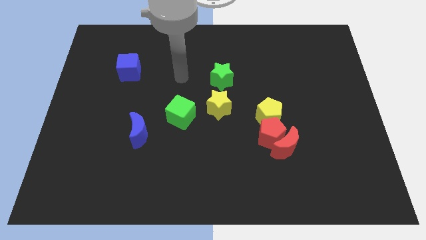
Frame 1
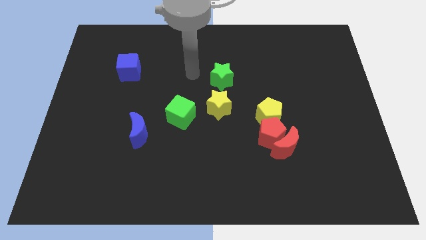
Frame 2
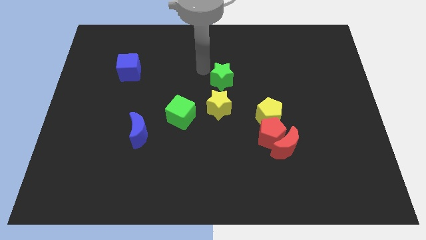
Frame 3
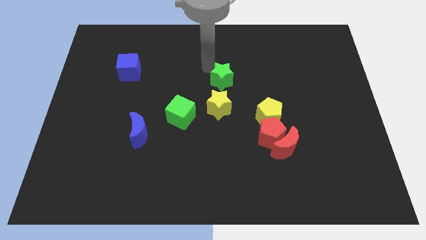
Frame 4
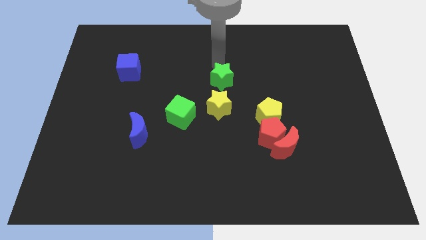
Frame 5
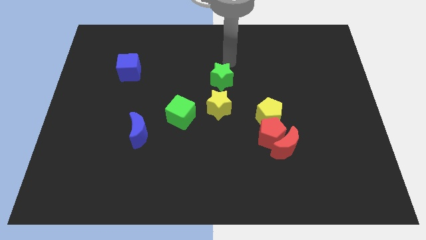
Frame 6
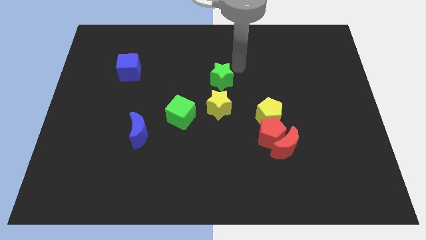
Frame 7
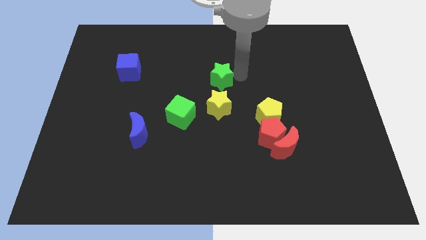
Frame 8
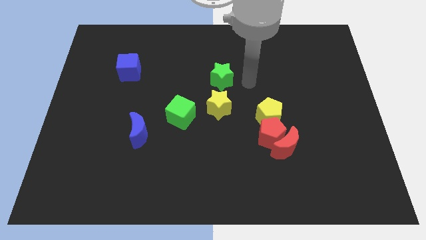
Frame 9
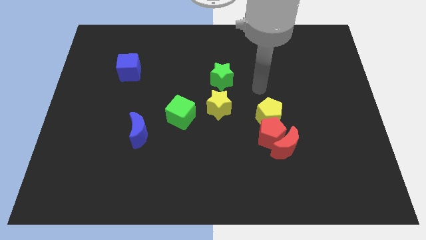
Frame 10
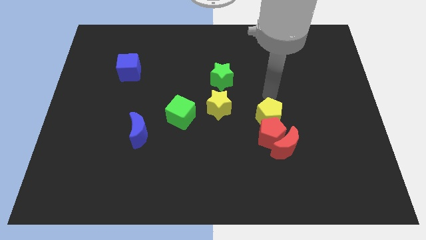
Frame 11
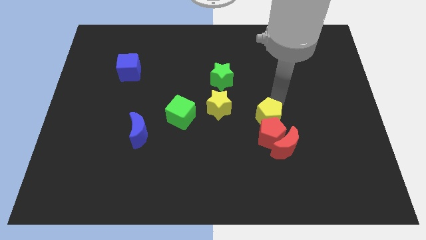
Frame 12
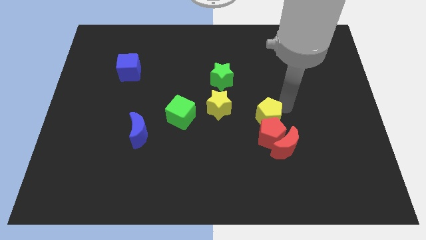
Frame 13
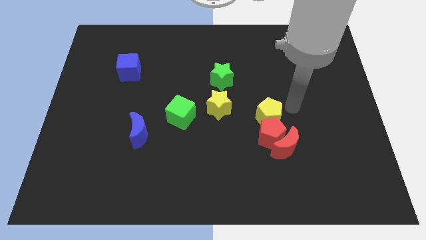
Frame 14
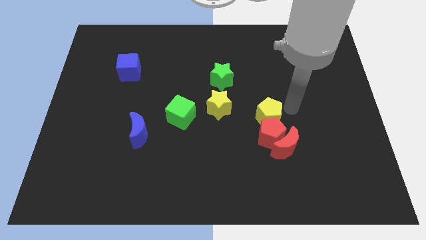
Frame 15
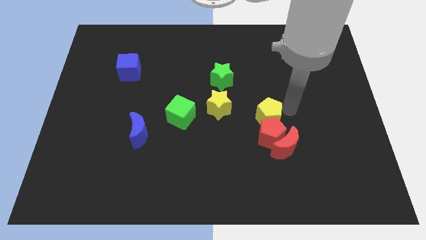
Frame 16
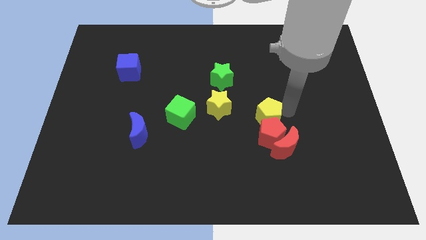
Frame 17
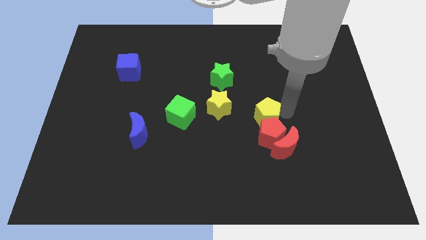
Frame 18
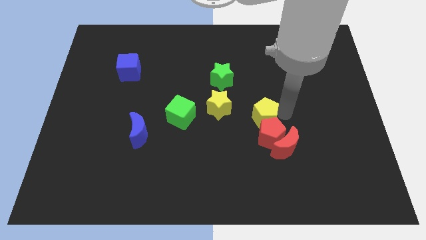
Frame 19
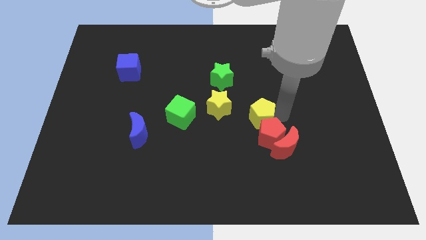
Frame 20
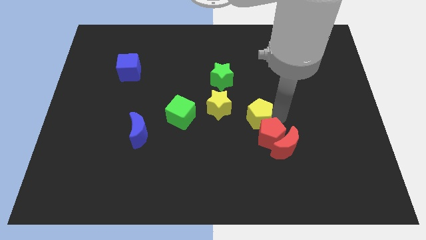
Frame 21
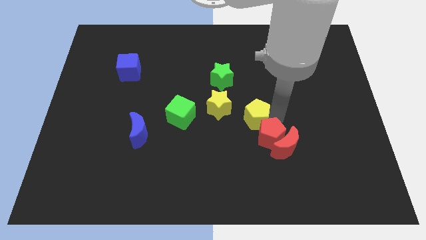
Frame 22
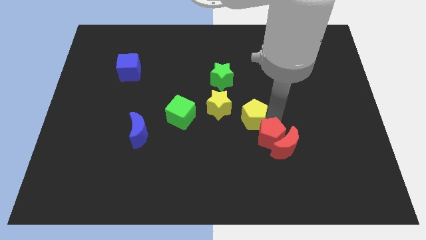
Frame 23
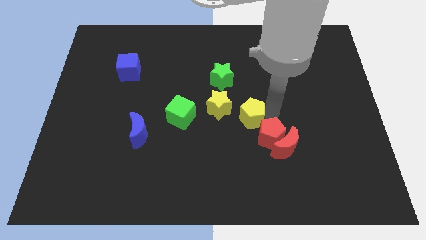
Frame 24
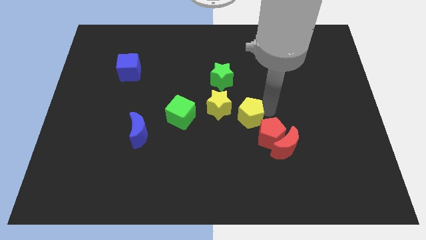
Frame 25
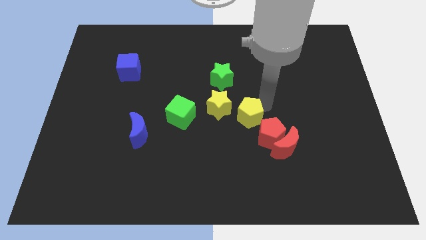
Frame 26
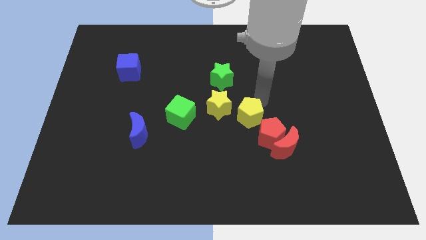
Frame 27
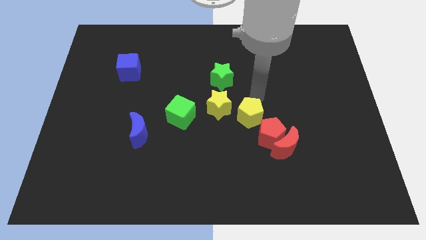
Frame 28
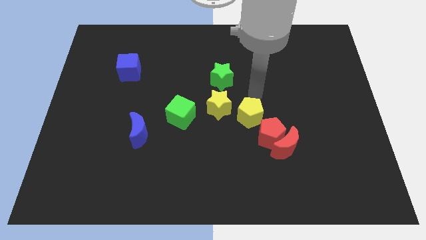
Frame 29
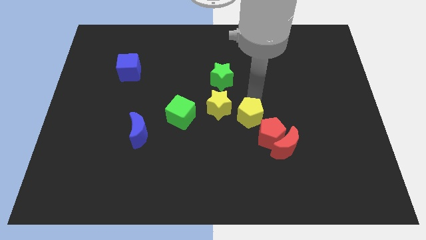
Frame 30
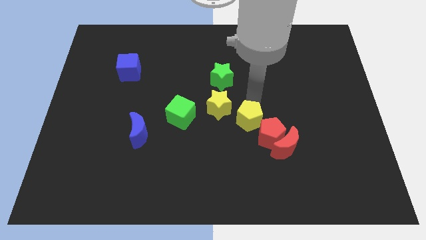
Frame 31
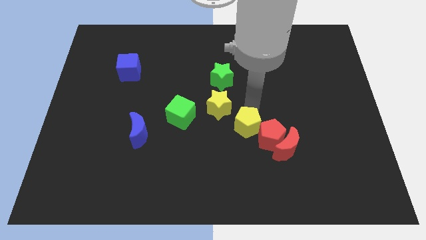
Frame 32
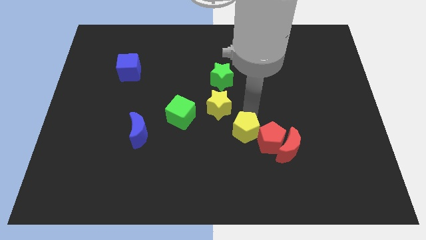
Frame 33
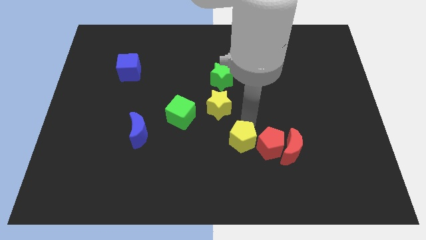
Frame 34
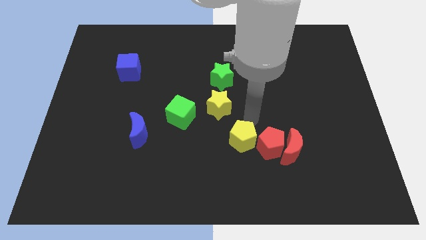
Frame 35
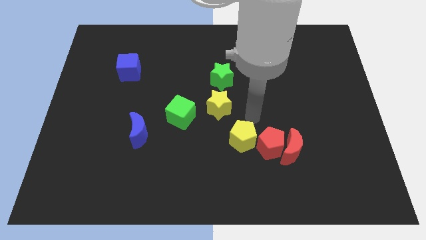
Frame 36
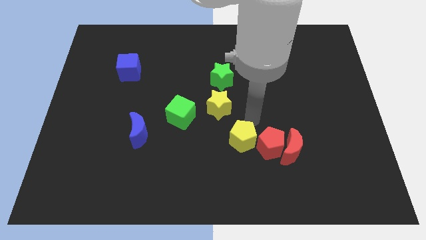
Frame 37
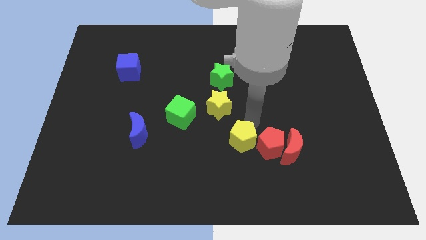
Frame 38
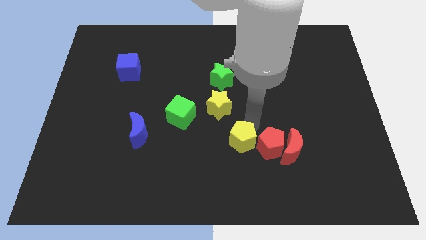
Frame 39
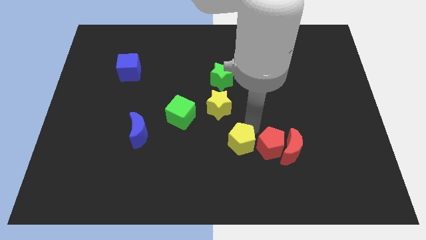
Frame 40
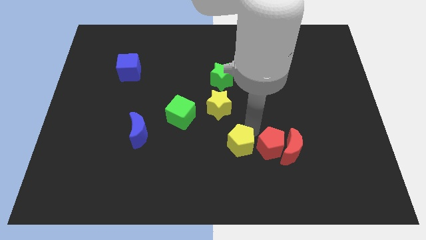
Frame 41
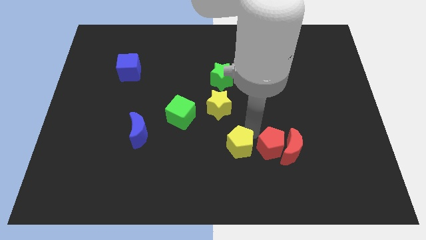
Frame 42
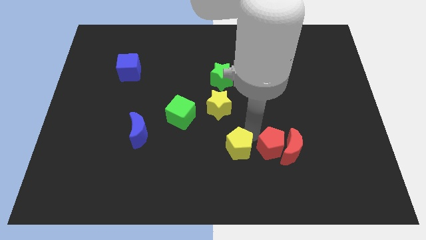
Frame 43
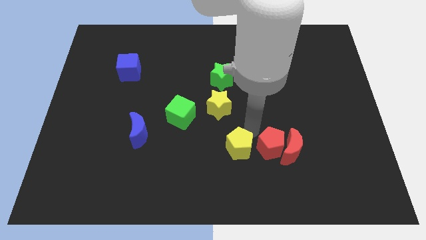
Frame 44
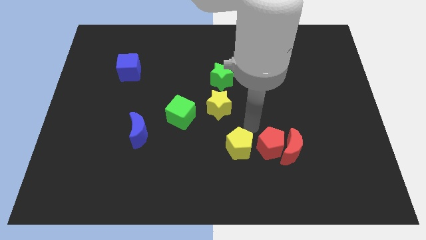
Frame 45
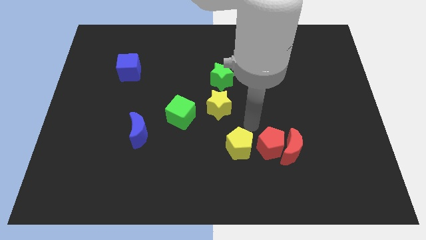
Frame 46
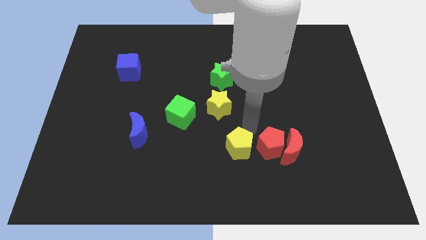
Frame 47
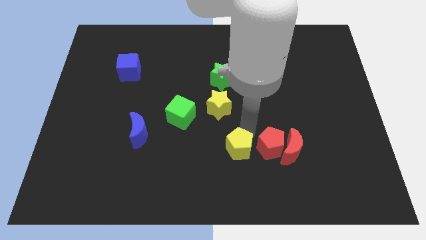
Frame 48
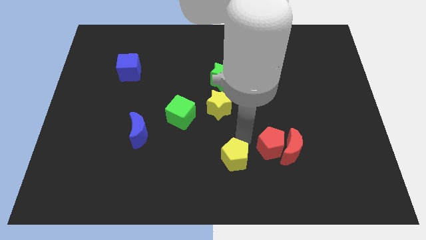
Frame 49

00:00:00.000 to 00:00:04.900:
move the yellow pentagon to the bottom side

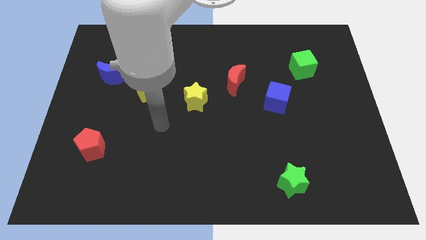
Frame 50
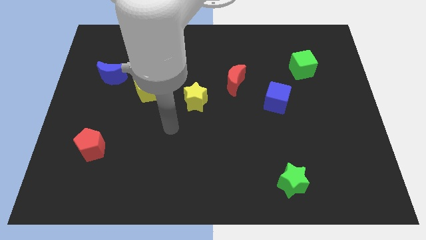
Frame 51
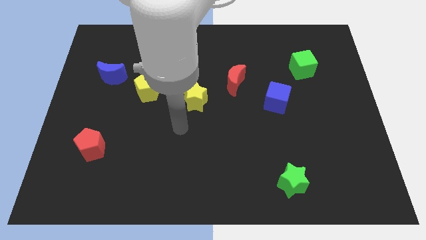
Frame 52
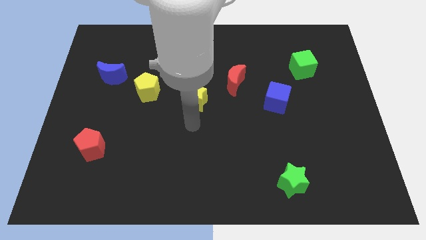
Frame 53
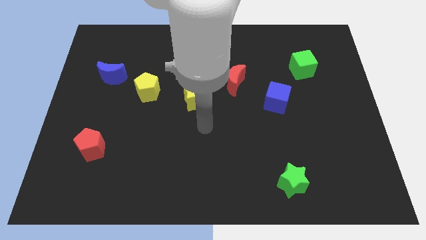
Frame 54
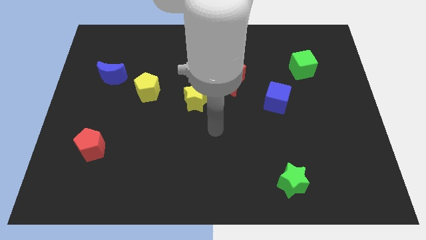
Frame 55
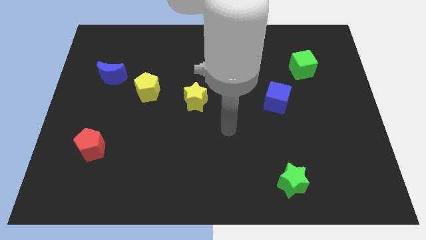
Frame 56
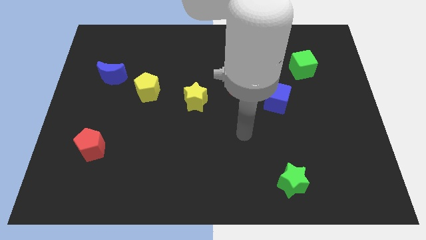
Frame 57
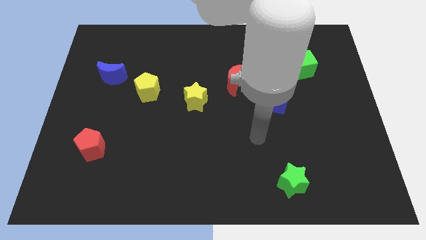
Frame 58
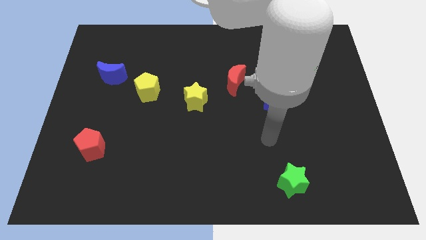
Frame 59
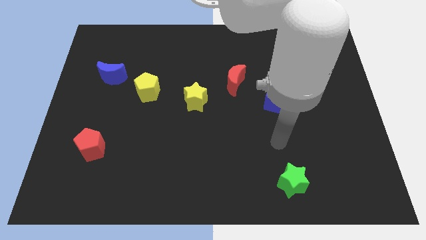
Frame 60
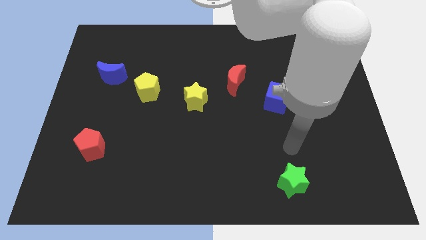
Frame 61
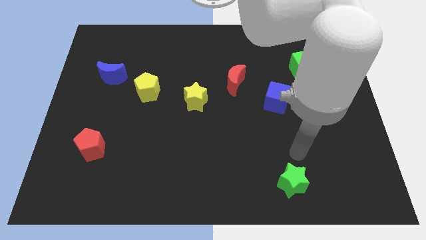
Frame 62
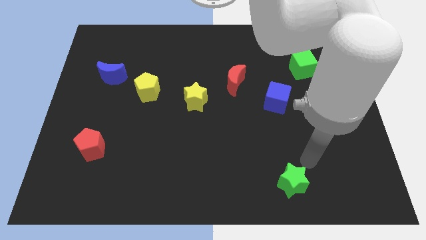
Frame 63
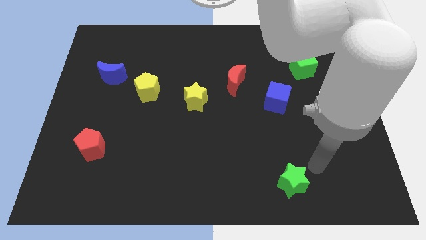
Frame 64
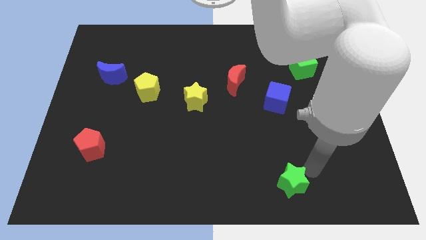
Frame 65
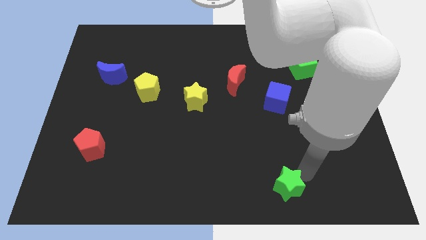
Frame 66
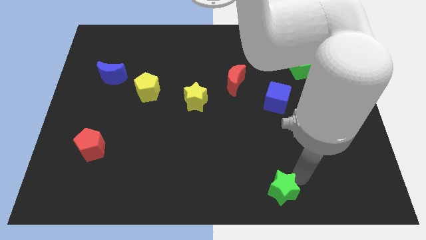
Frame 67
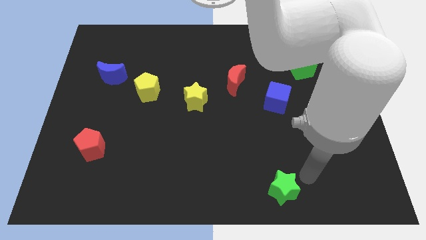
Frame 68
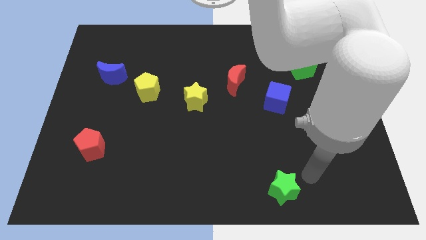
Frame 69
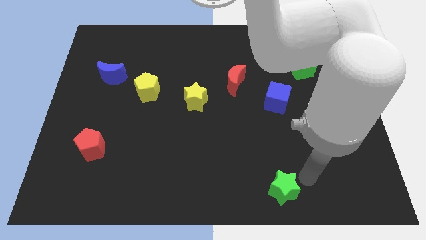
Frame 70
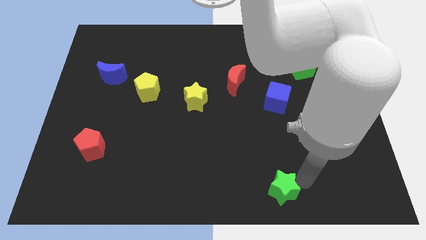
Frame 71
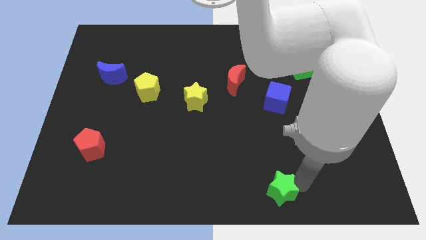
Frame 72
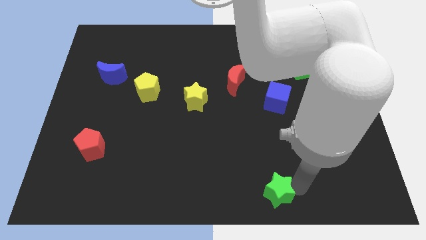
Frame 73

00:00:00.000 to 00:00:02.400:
push the green star to the bottom side

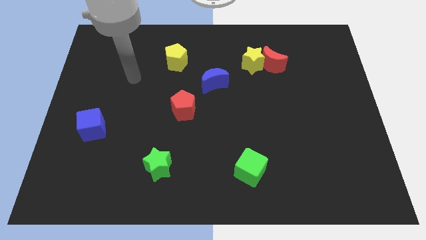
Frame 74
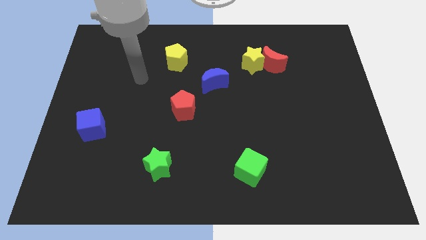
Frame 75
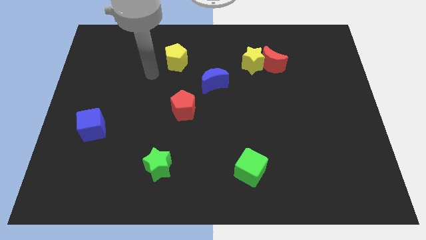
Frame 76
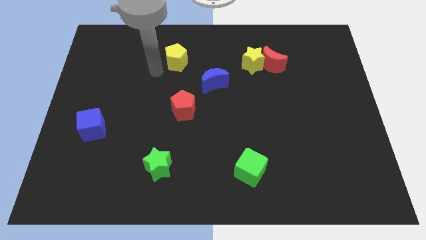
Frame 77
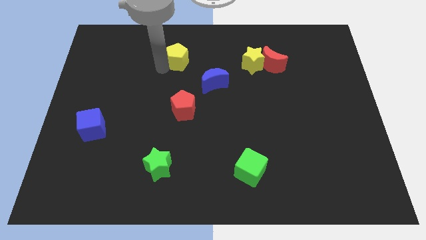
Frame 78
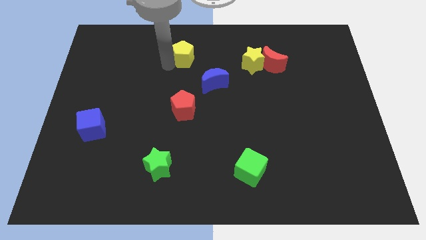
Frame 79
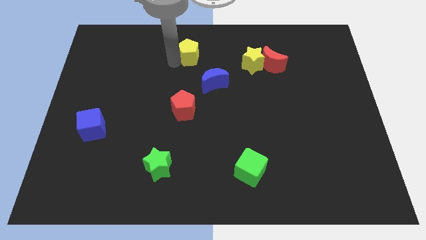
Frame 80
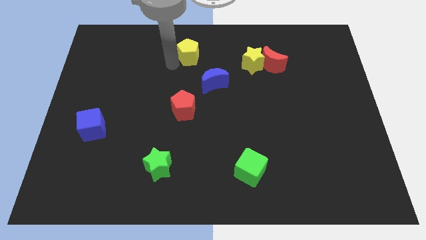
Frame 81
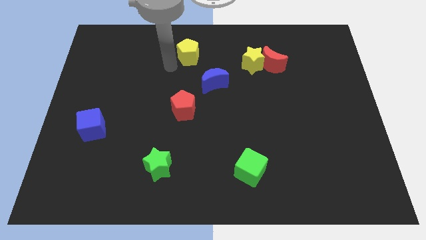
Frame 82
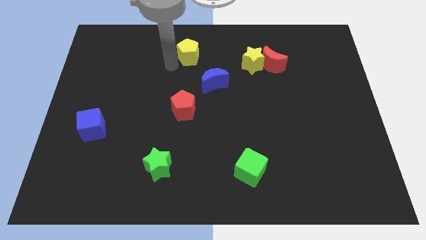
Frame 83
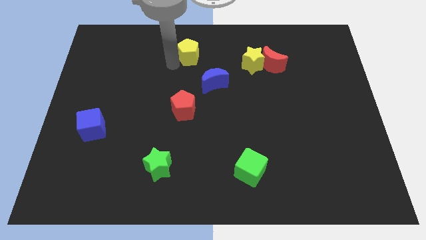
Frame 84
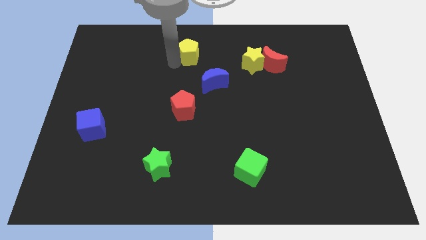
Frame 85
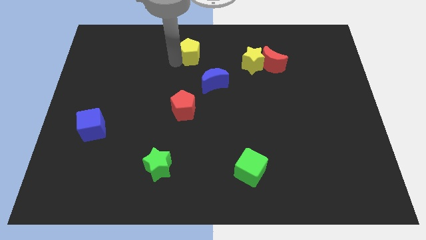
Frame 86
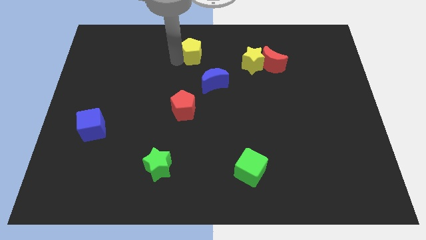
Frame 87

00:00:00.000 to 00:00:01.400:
slide the yellow pentagon to the top
